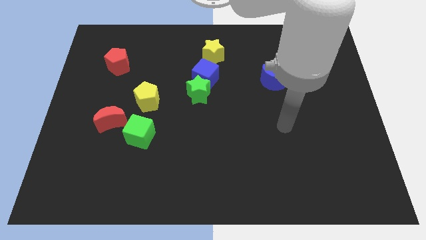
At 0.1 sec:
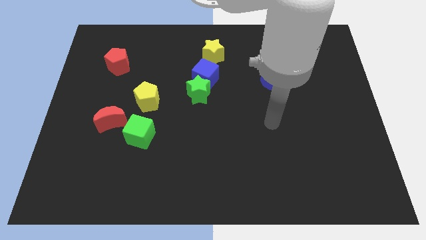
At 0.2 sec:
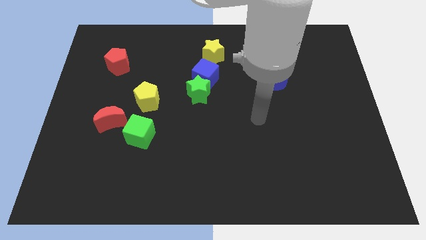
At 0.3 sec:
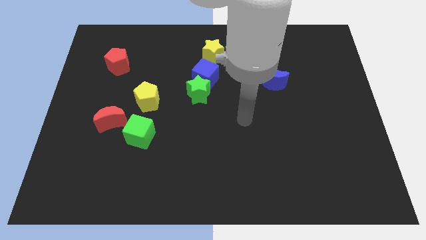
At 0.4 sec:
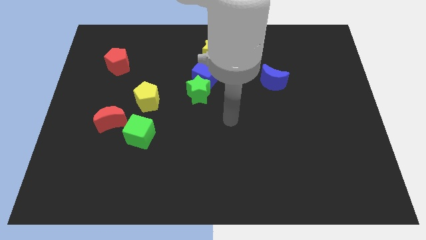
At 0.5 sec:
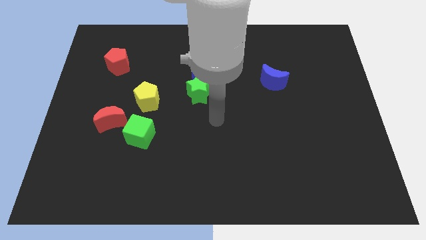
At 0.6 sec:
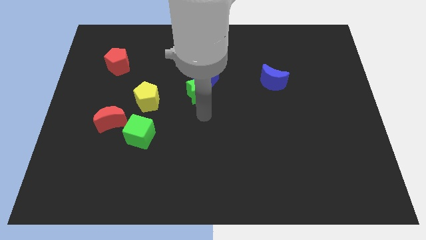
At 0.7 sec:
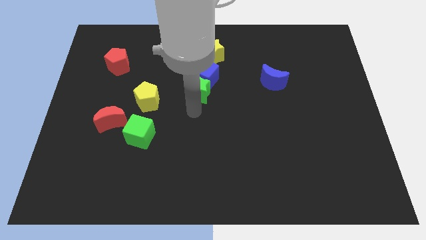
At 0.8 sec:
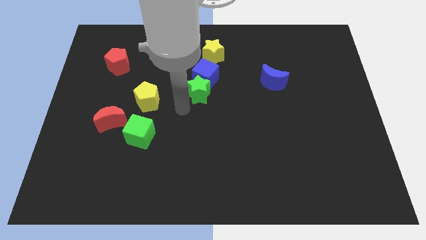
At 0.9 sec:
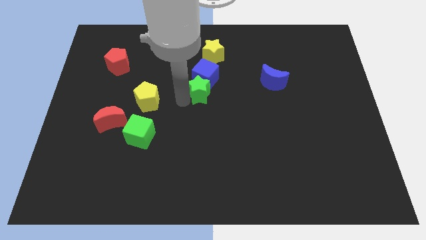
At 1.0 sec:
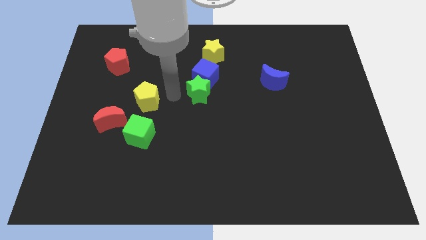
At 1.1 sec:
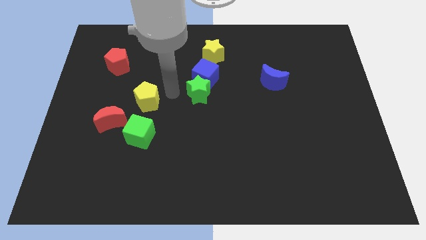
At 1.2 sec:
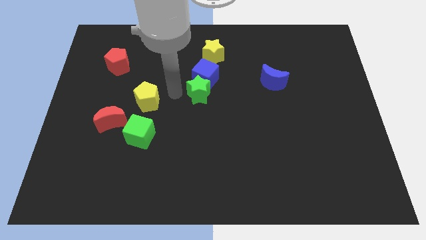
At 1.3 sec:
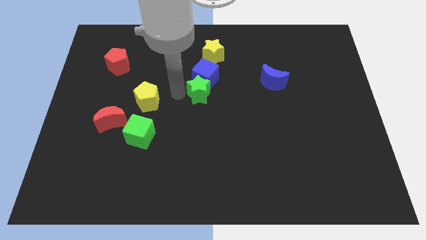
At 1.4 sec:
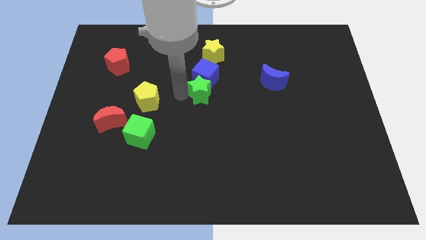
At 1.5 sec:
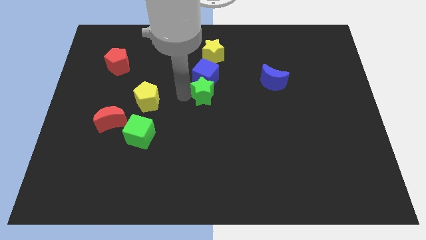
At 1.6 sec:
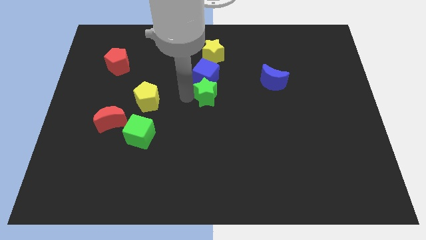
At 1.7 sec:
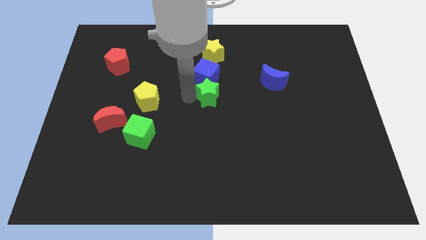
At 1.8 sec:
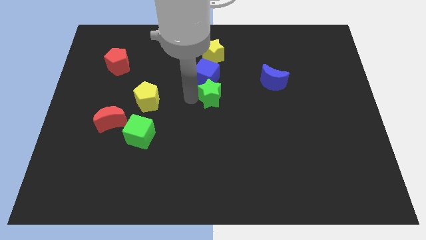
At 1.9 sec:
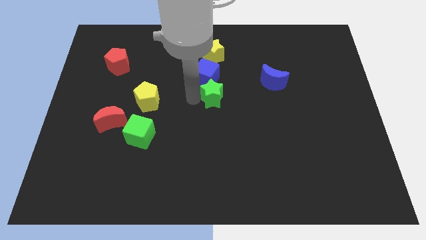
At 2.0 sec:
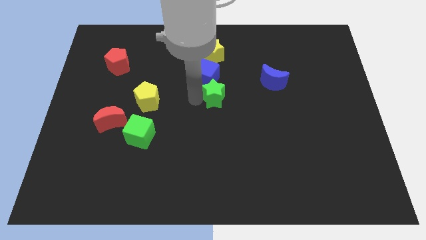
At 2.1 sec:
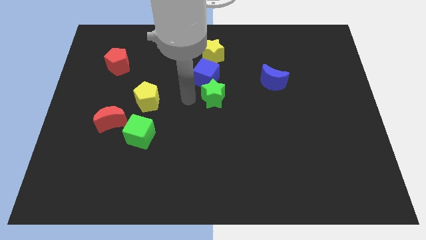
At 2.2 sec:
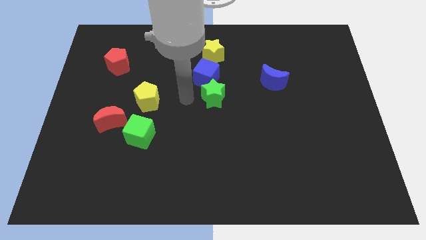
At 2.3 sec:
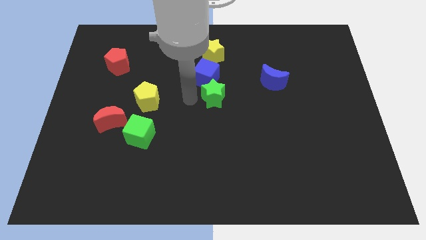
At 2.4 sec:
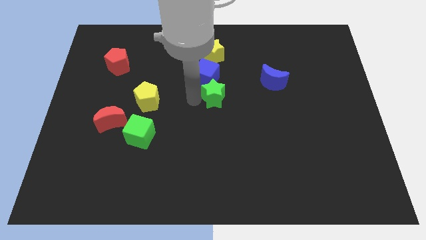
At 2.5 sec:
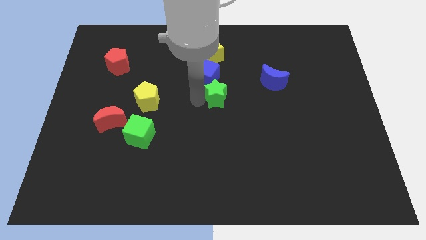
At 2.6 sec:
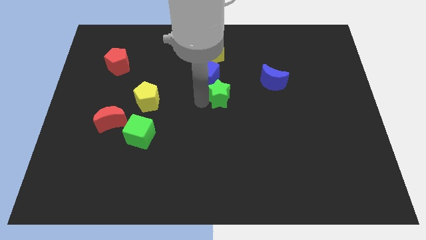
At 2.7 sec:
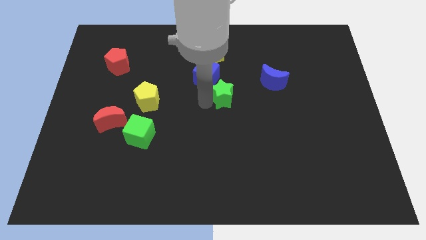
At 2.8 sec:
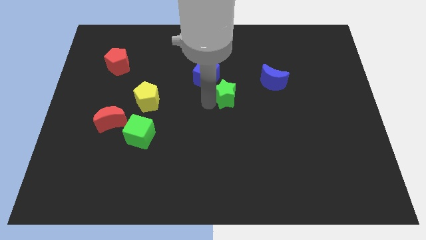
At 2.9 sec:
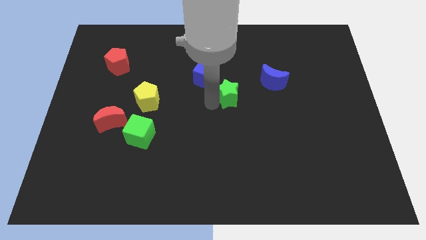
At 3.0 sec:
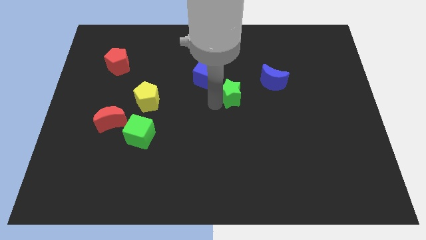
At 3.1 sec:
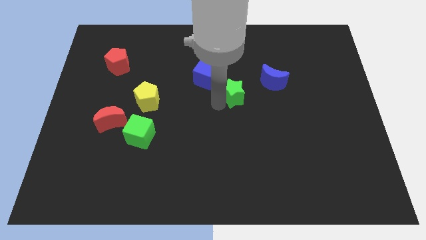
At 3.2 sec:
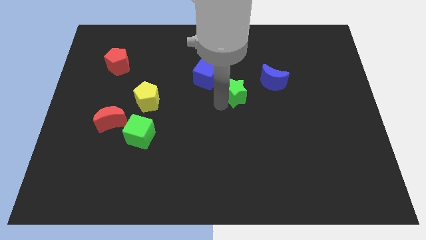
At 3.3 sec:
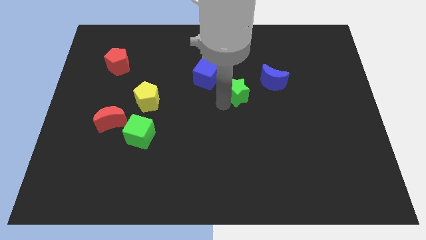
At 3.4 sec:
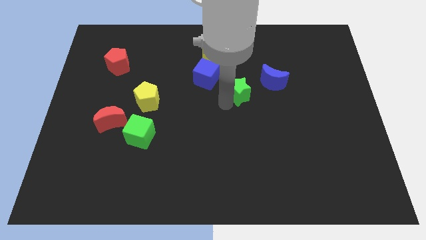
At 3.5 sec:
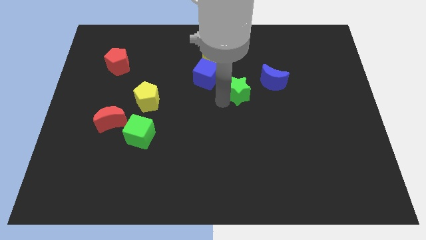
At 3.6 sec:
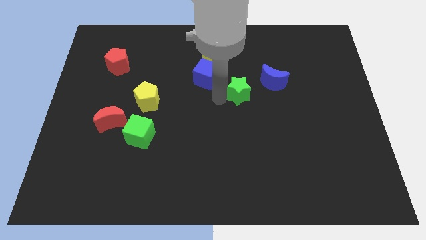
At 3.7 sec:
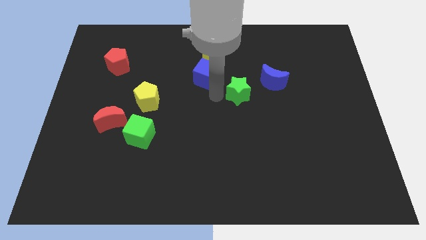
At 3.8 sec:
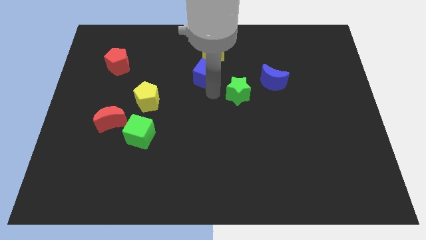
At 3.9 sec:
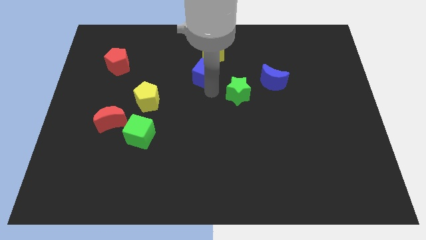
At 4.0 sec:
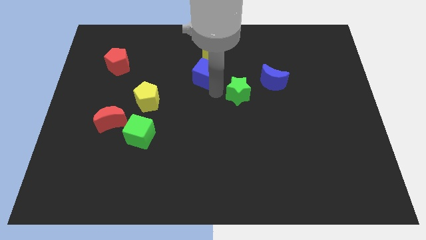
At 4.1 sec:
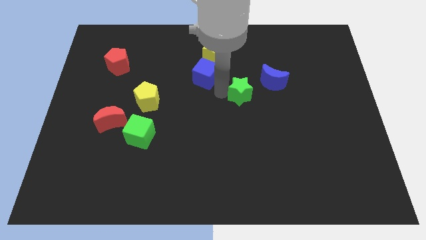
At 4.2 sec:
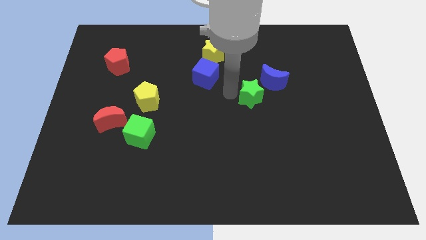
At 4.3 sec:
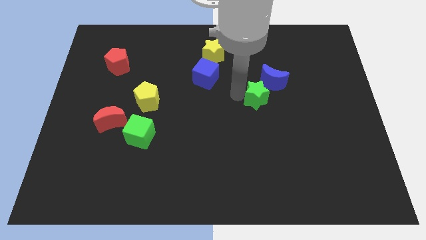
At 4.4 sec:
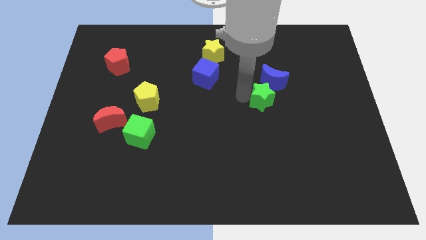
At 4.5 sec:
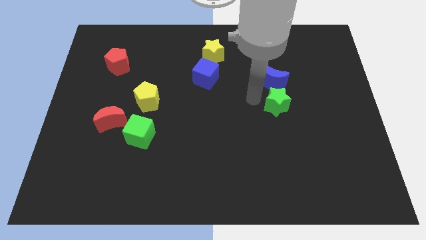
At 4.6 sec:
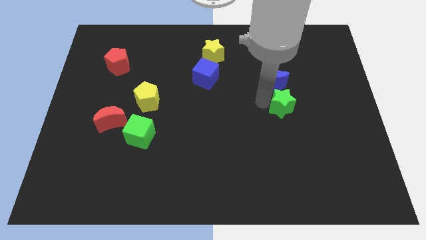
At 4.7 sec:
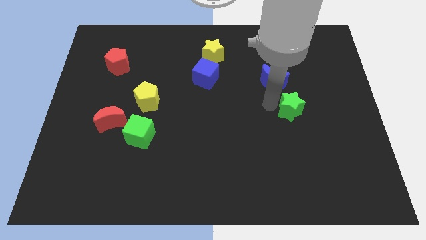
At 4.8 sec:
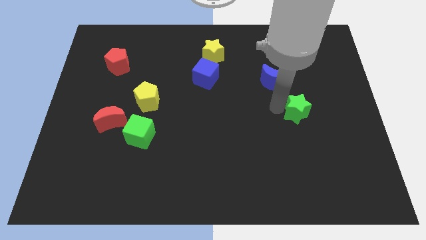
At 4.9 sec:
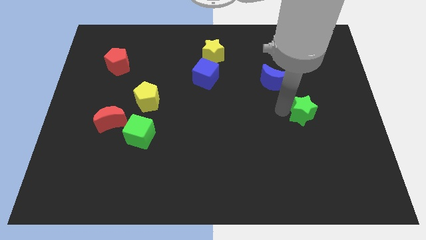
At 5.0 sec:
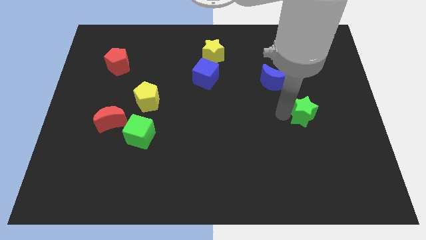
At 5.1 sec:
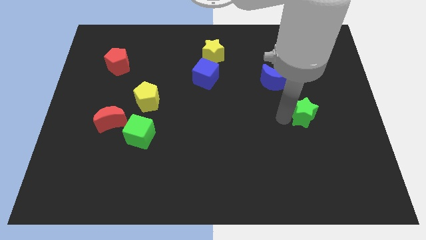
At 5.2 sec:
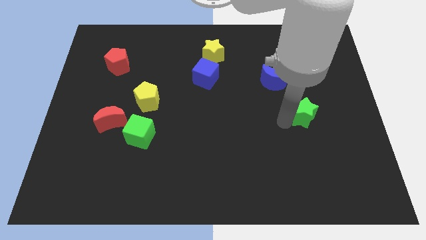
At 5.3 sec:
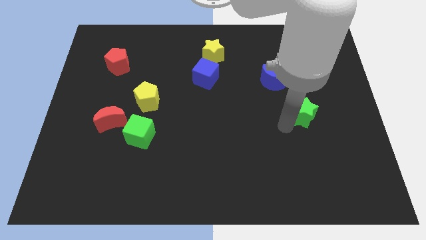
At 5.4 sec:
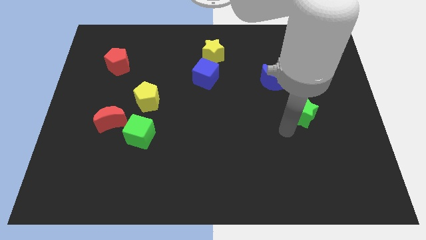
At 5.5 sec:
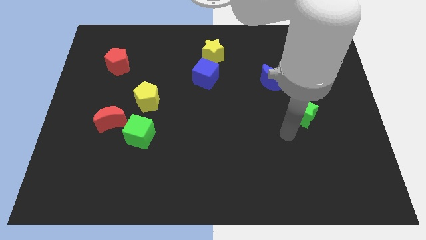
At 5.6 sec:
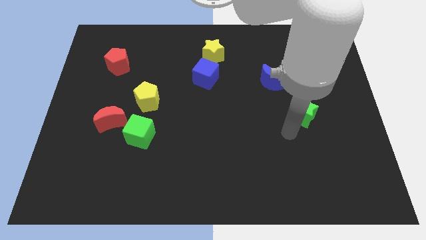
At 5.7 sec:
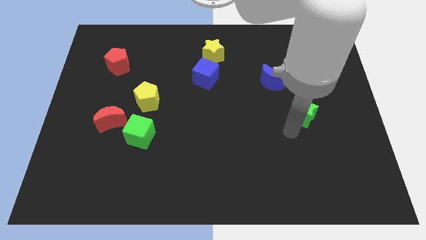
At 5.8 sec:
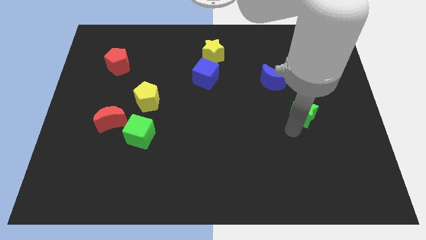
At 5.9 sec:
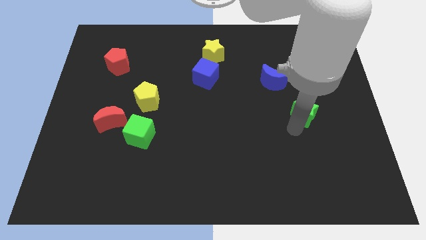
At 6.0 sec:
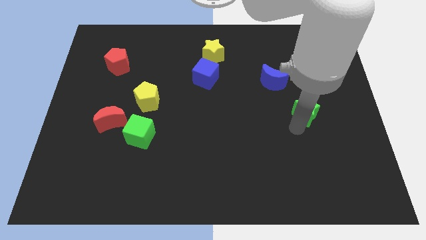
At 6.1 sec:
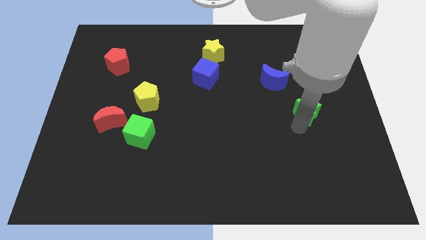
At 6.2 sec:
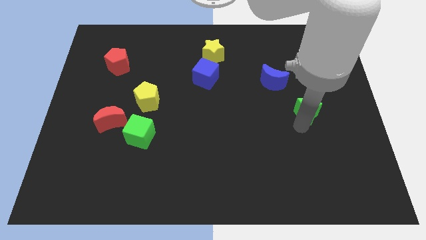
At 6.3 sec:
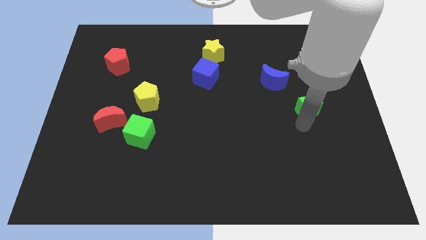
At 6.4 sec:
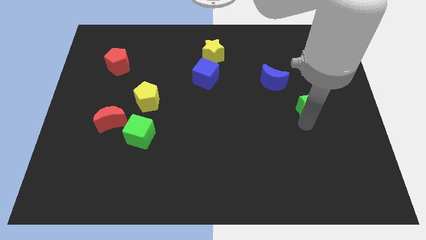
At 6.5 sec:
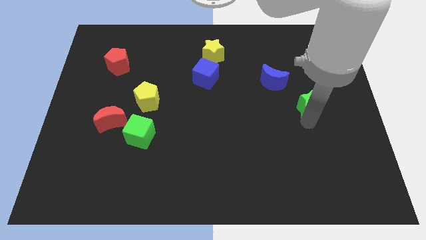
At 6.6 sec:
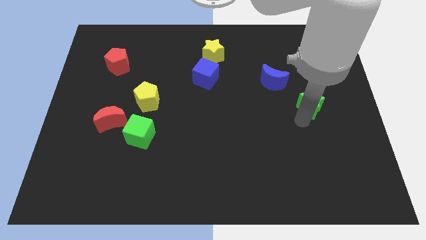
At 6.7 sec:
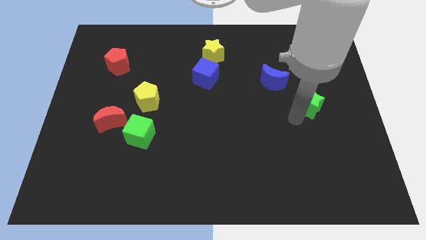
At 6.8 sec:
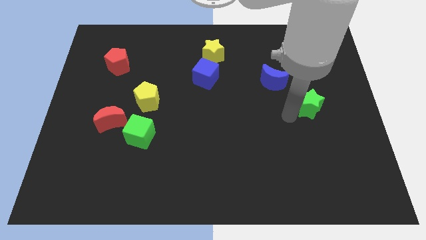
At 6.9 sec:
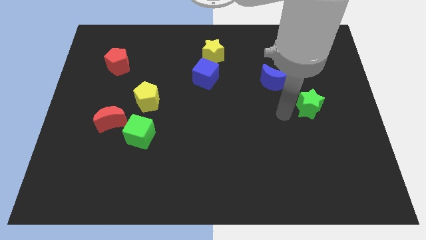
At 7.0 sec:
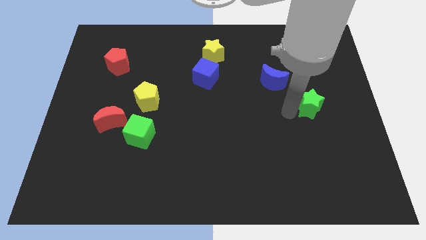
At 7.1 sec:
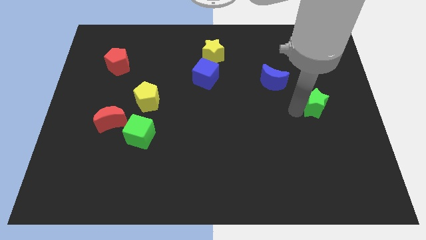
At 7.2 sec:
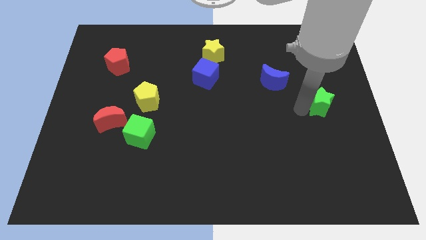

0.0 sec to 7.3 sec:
push the green star to the right side of the board
